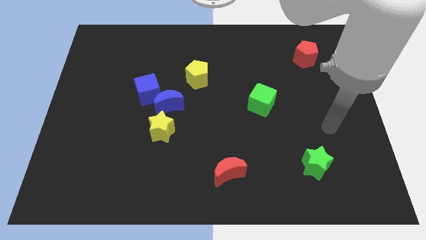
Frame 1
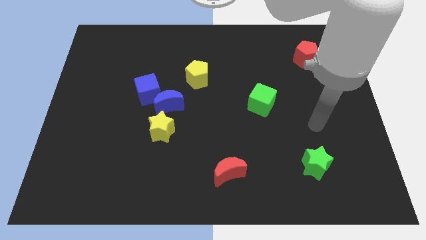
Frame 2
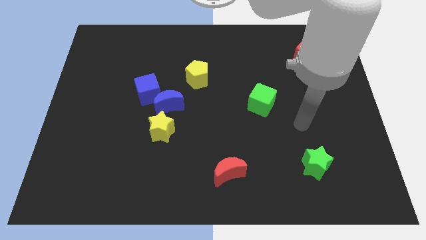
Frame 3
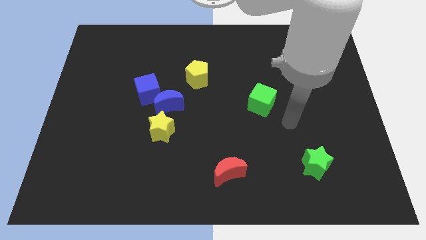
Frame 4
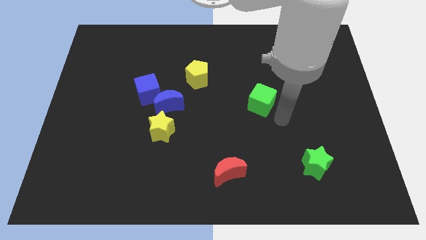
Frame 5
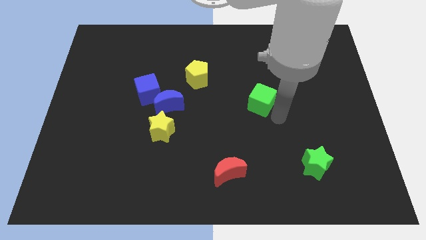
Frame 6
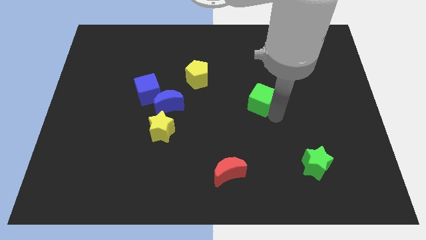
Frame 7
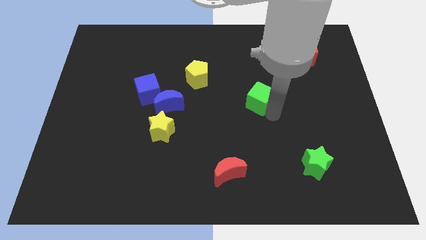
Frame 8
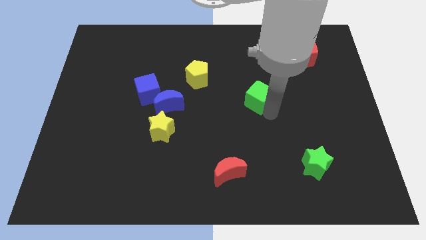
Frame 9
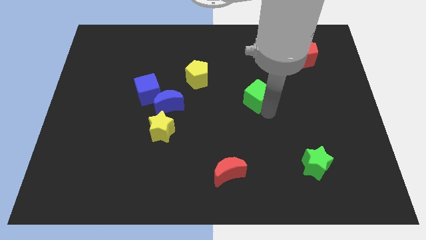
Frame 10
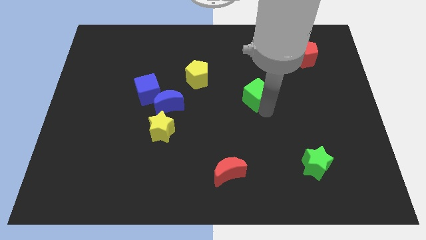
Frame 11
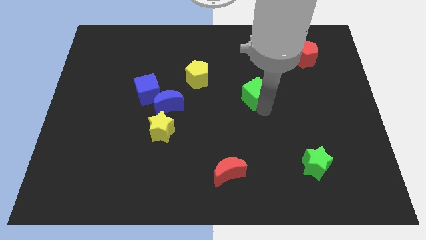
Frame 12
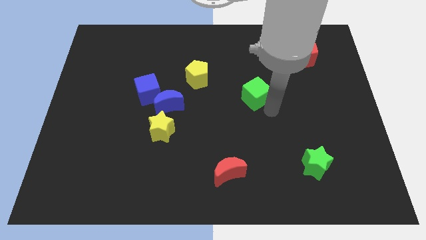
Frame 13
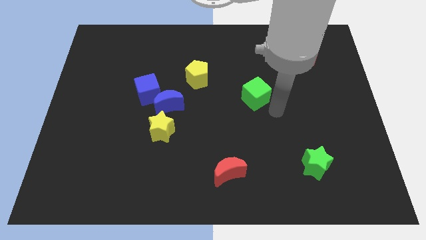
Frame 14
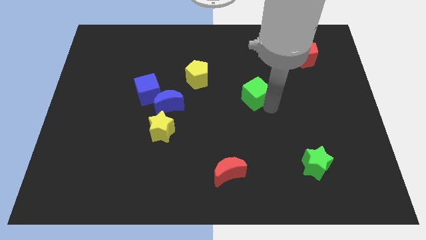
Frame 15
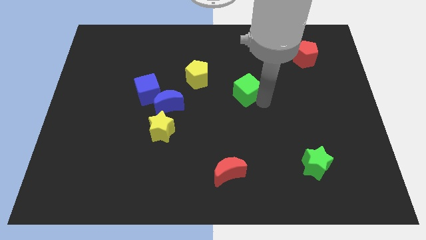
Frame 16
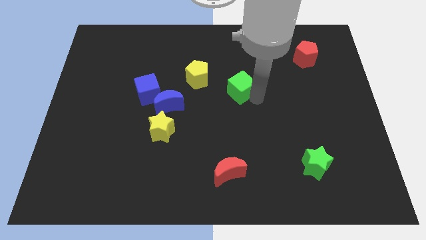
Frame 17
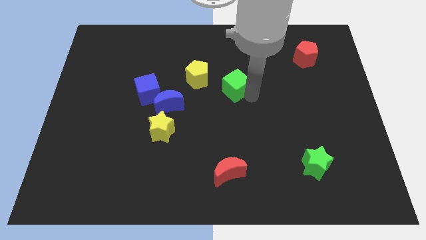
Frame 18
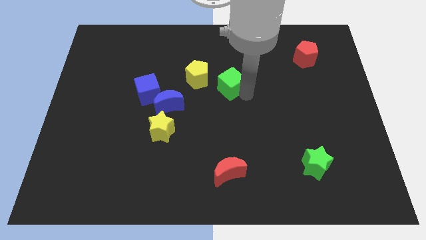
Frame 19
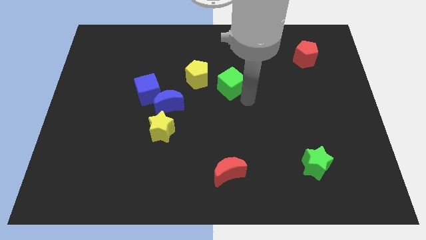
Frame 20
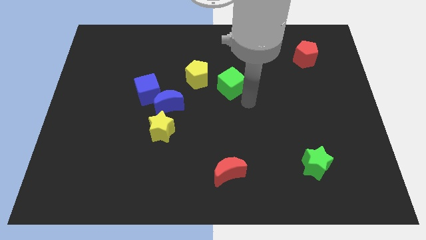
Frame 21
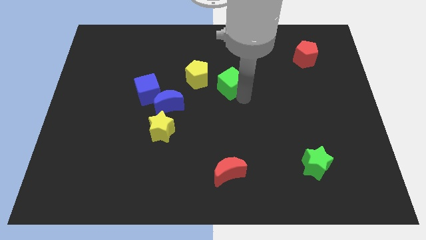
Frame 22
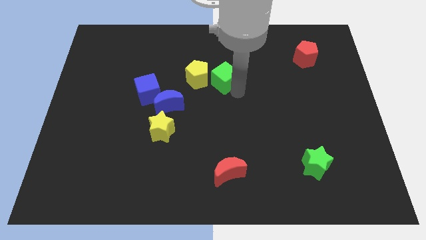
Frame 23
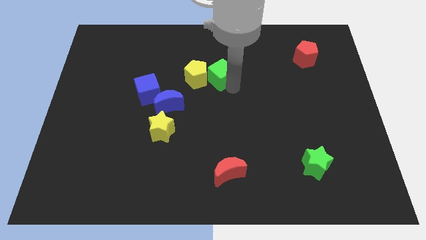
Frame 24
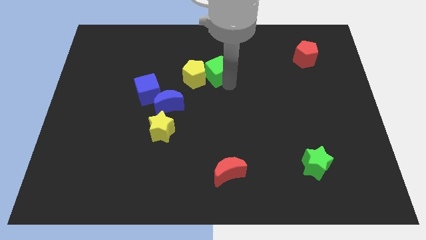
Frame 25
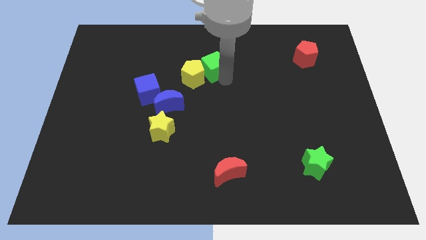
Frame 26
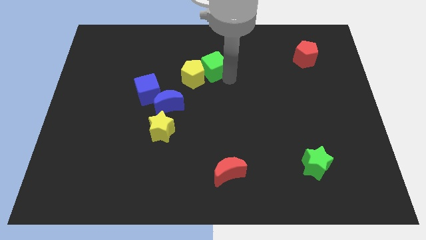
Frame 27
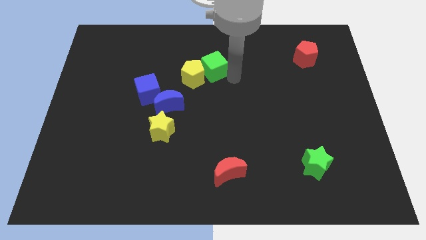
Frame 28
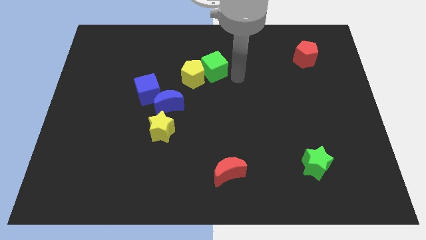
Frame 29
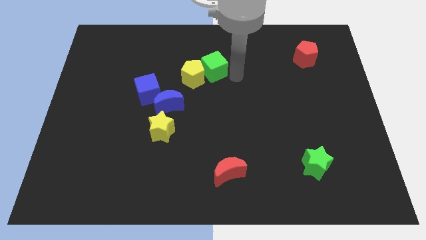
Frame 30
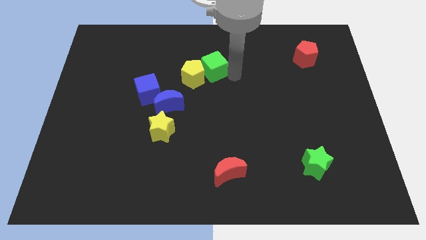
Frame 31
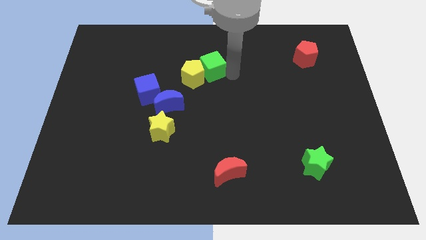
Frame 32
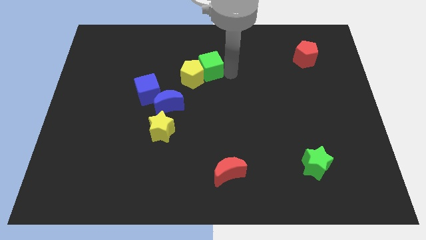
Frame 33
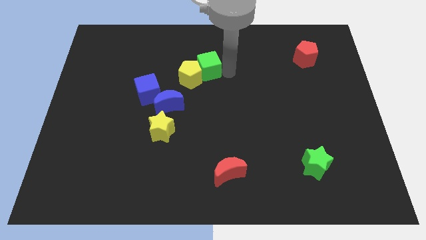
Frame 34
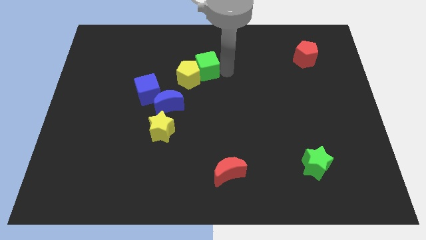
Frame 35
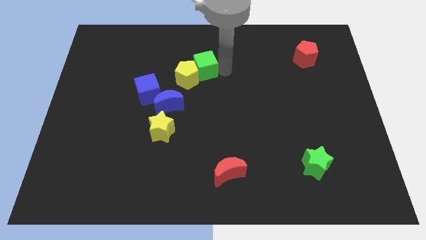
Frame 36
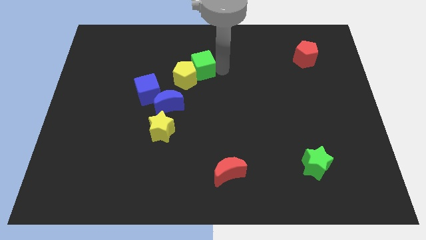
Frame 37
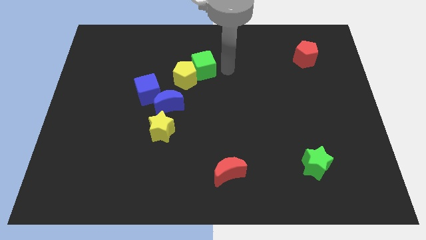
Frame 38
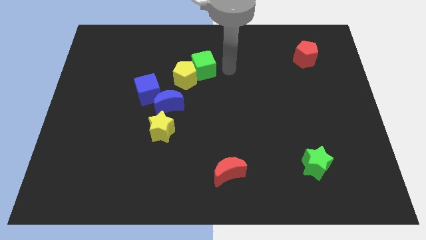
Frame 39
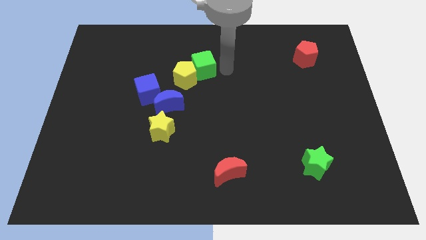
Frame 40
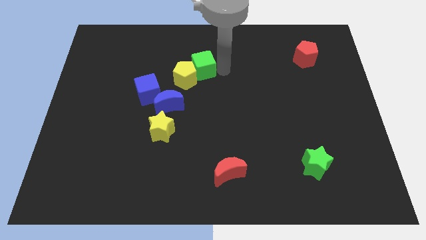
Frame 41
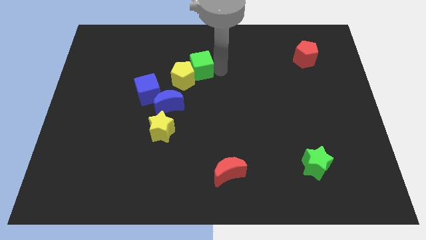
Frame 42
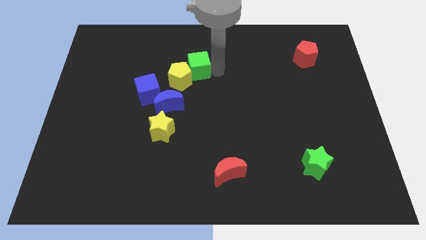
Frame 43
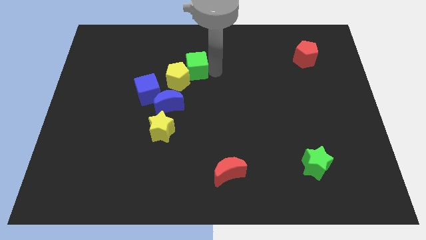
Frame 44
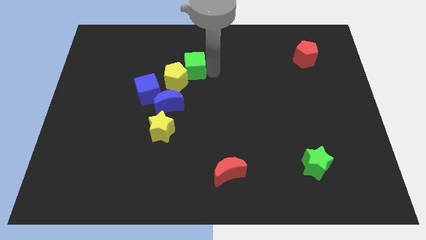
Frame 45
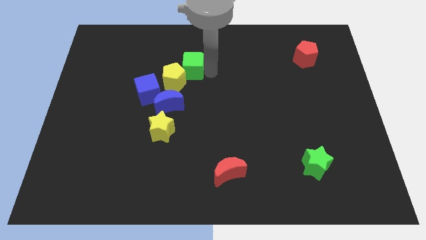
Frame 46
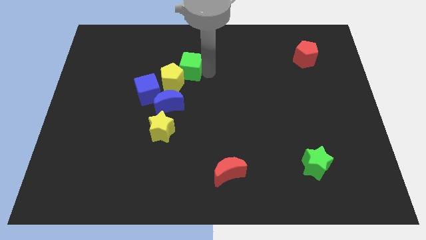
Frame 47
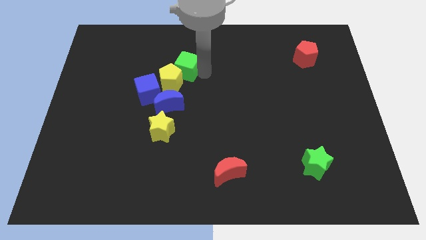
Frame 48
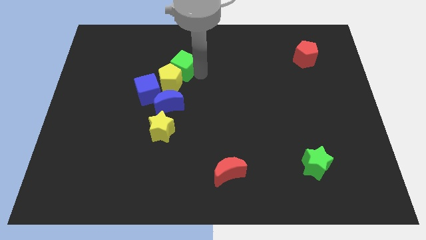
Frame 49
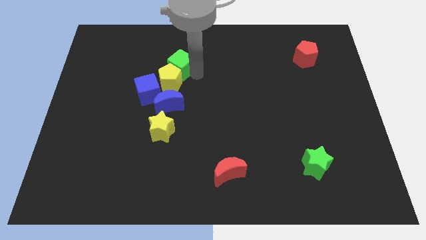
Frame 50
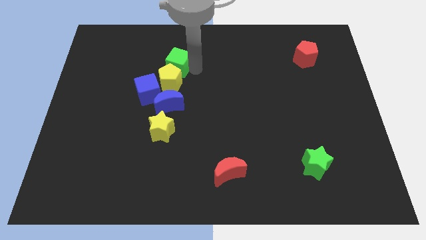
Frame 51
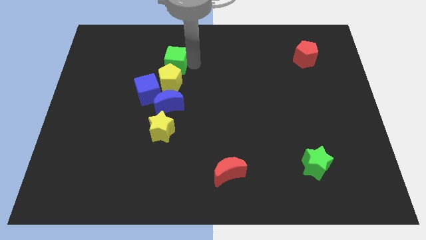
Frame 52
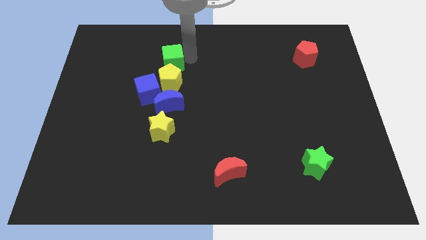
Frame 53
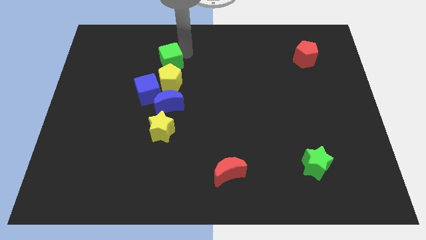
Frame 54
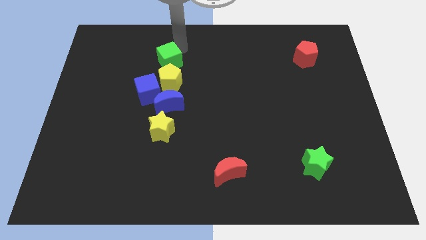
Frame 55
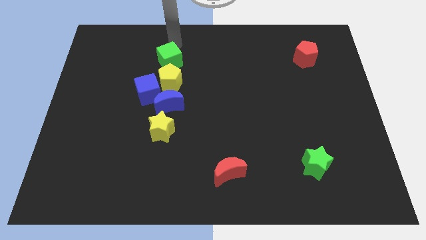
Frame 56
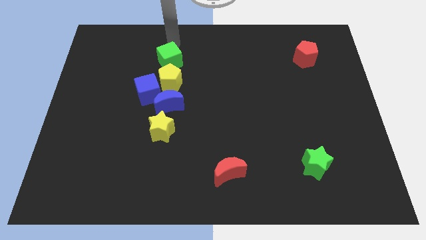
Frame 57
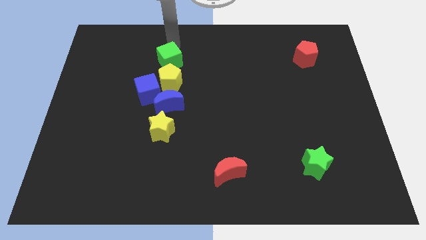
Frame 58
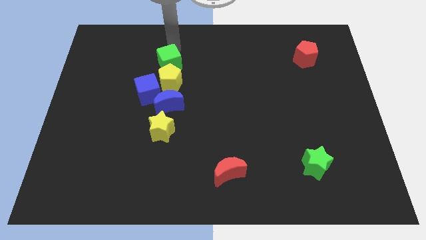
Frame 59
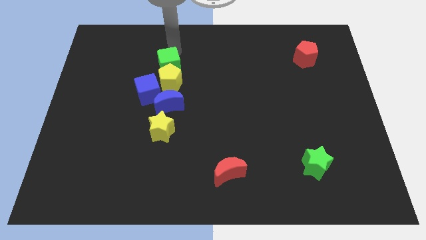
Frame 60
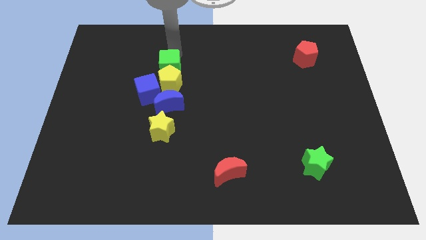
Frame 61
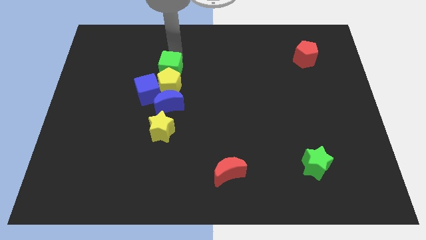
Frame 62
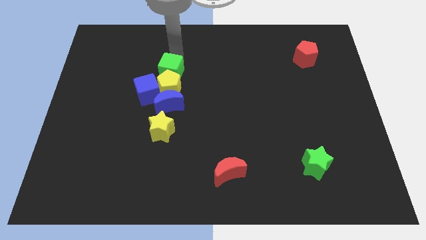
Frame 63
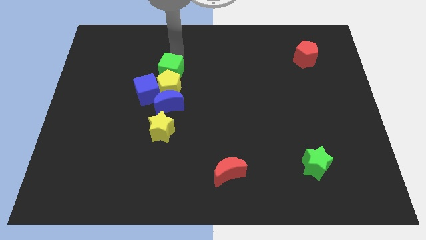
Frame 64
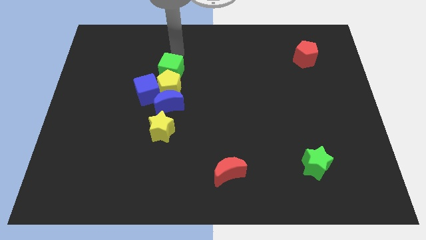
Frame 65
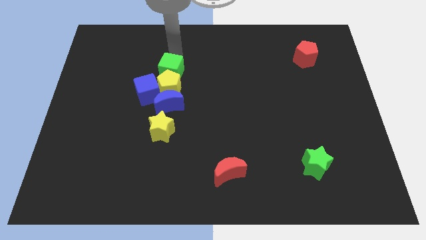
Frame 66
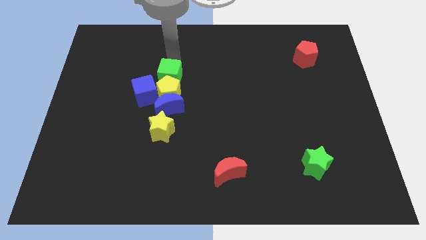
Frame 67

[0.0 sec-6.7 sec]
move the green cube above the yellow star
